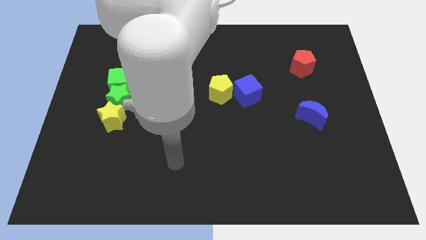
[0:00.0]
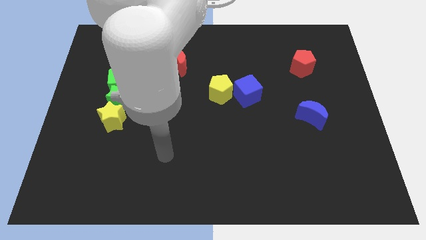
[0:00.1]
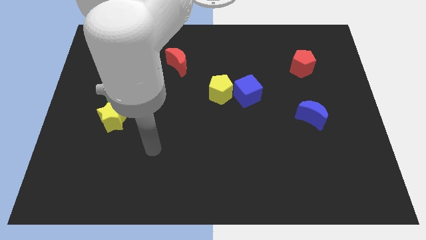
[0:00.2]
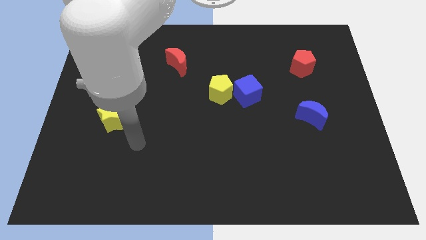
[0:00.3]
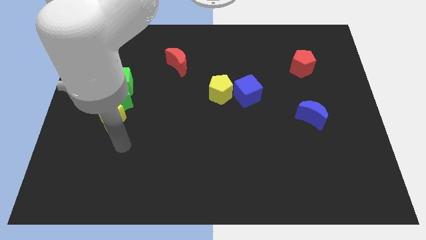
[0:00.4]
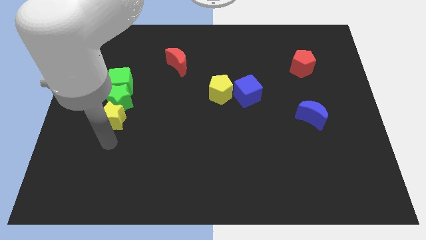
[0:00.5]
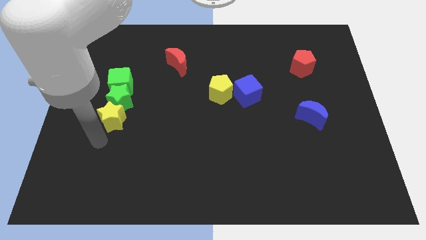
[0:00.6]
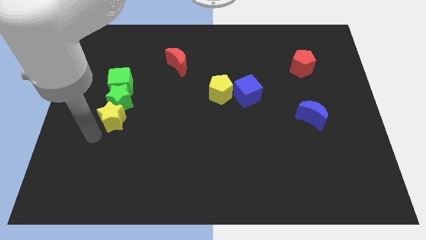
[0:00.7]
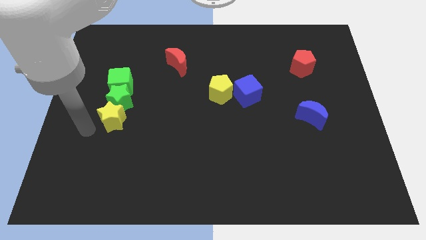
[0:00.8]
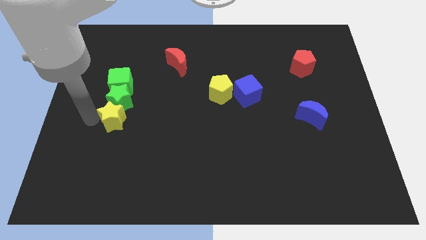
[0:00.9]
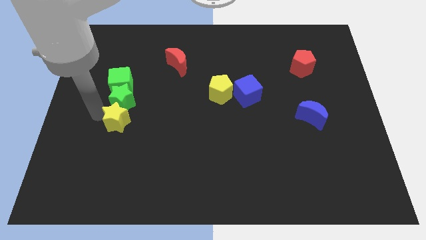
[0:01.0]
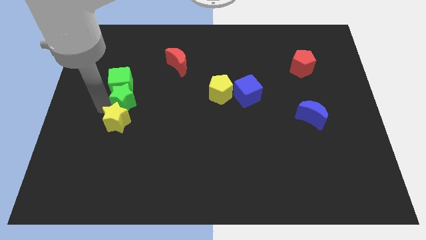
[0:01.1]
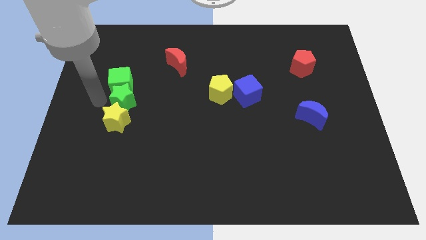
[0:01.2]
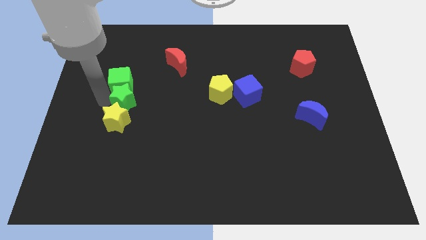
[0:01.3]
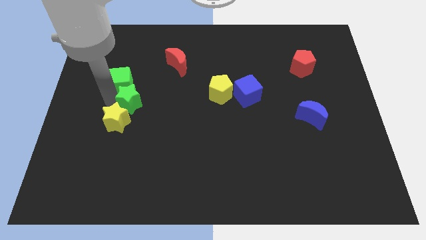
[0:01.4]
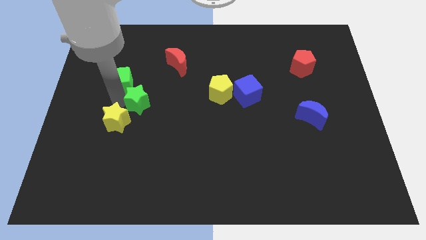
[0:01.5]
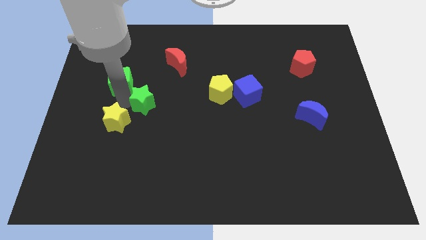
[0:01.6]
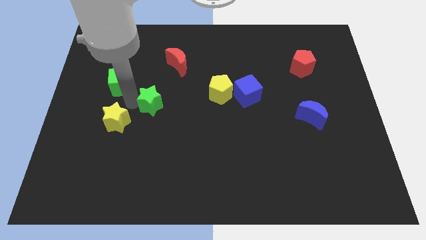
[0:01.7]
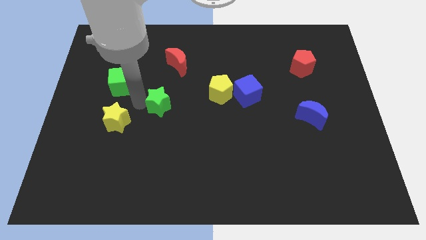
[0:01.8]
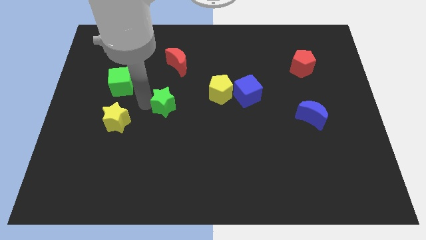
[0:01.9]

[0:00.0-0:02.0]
move the green star away from the yellow star and green cube

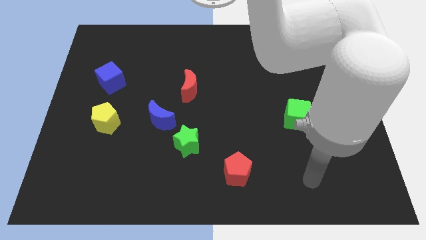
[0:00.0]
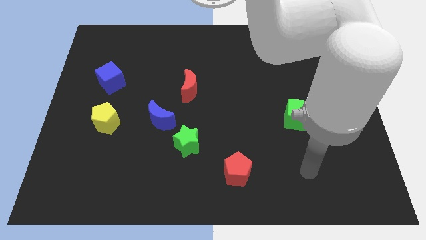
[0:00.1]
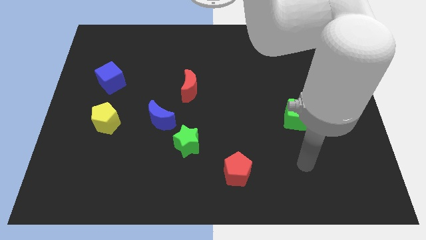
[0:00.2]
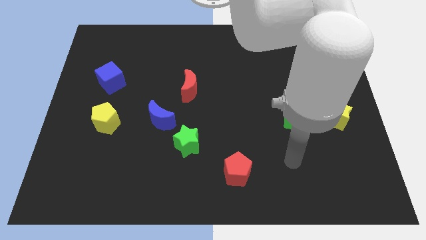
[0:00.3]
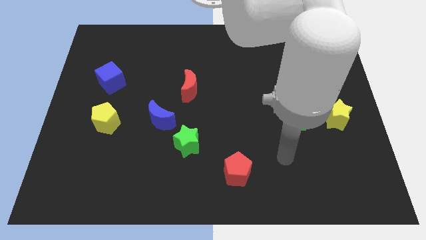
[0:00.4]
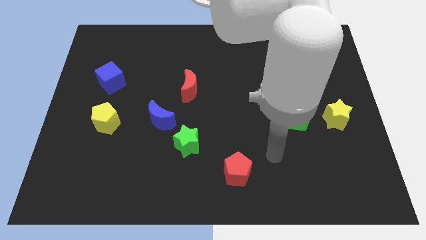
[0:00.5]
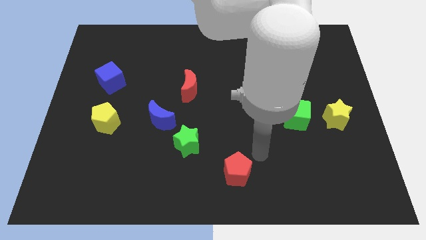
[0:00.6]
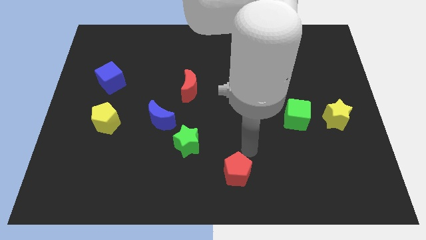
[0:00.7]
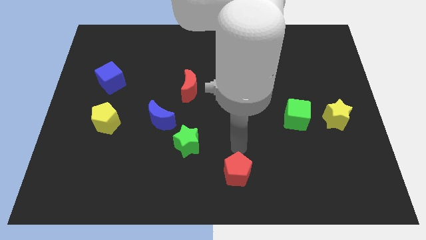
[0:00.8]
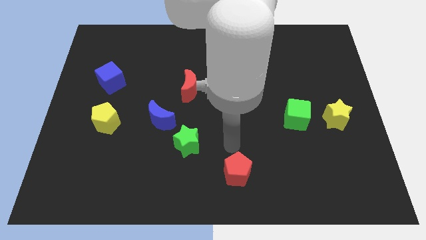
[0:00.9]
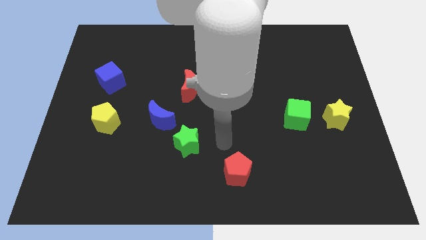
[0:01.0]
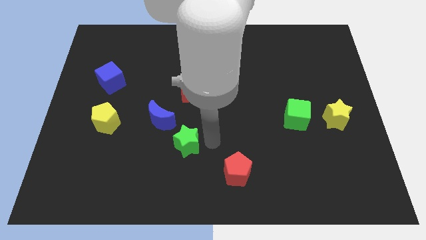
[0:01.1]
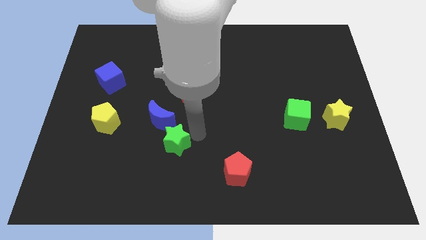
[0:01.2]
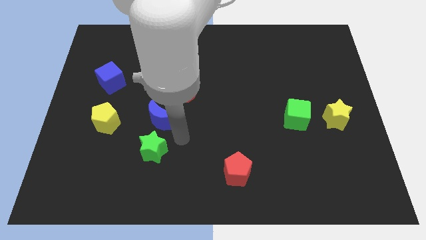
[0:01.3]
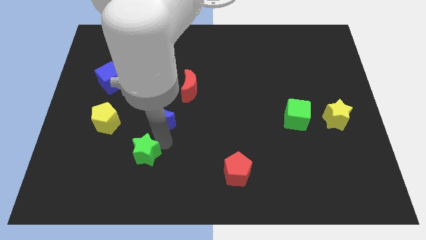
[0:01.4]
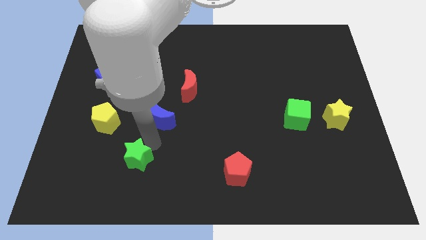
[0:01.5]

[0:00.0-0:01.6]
pull the blue moon apart from the green star

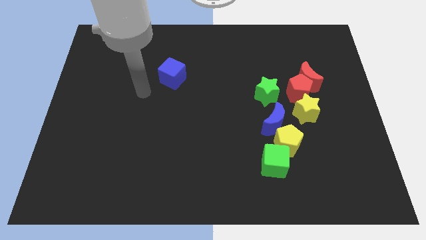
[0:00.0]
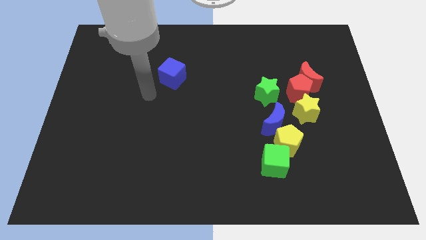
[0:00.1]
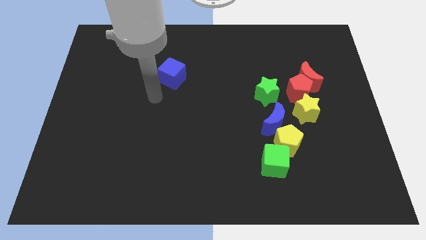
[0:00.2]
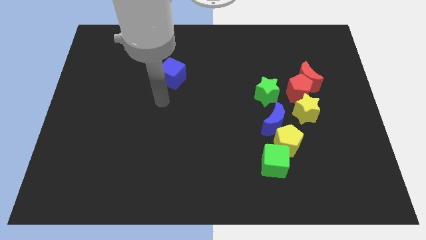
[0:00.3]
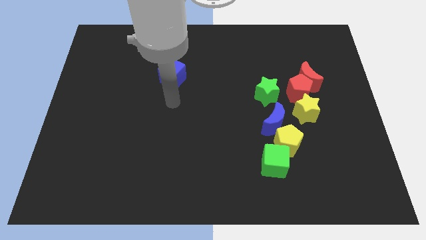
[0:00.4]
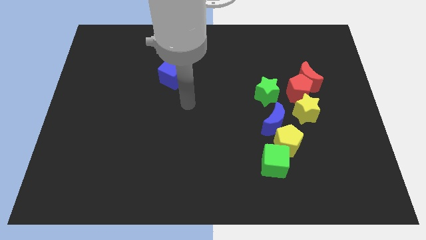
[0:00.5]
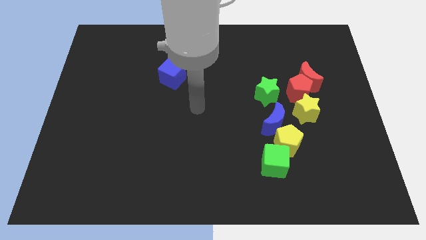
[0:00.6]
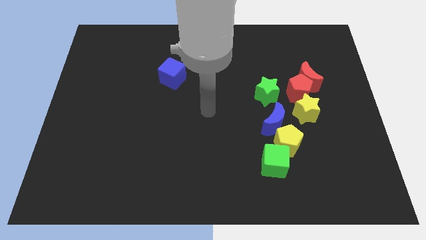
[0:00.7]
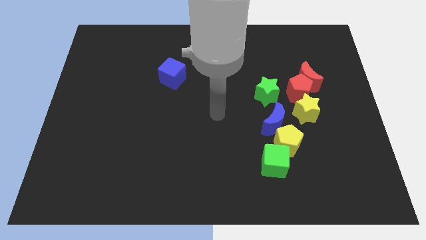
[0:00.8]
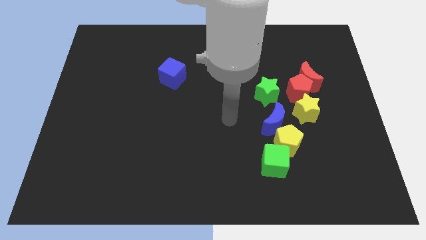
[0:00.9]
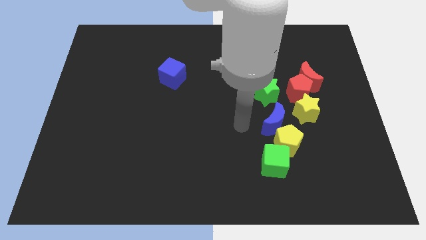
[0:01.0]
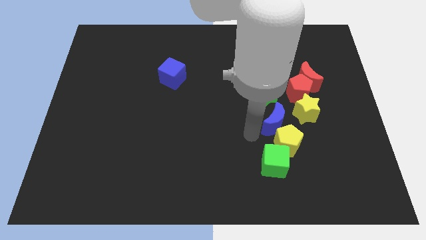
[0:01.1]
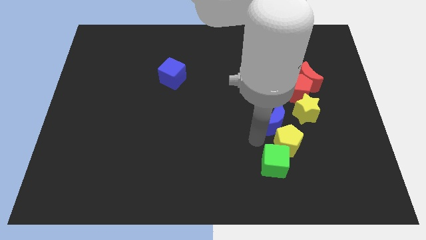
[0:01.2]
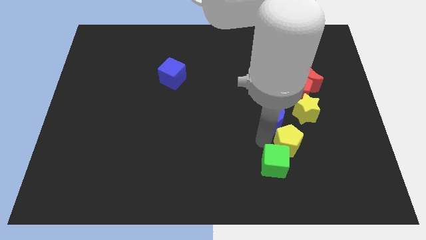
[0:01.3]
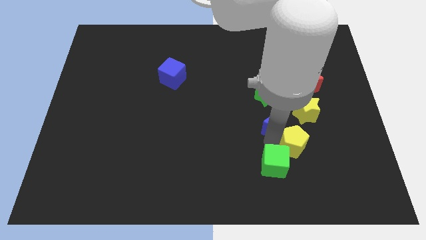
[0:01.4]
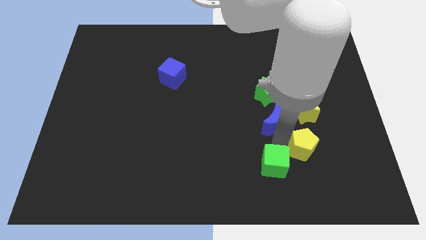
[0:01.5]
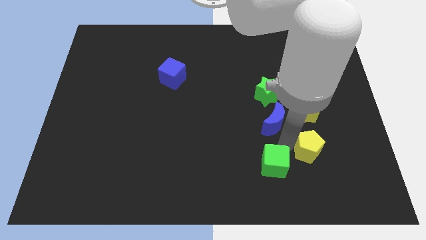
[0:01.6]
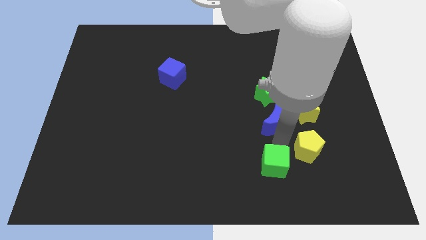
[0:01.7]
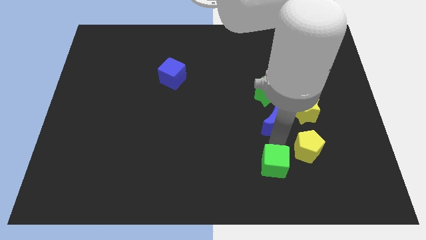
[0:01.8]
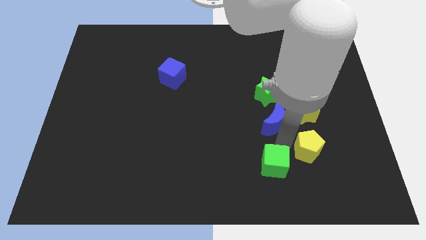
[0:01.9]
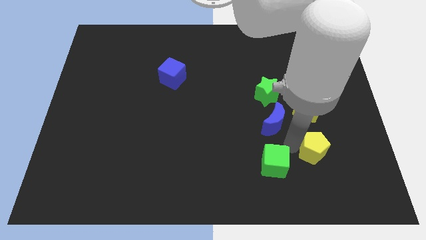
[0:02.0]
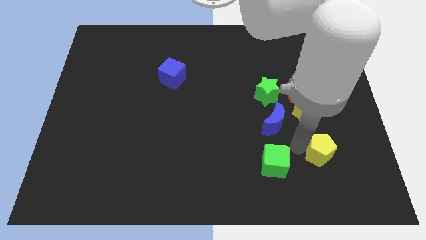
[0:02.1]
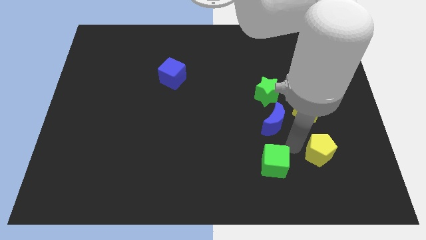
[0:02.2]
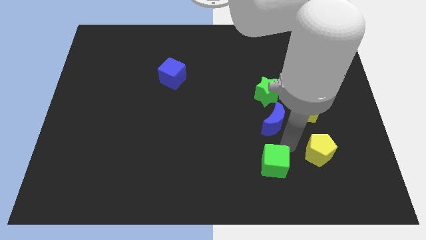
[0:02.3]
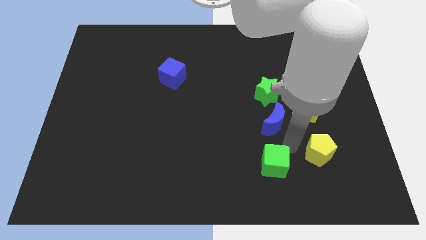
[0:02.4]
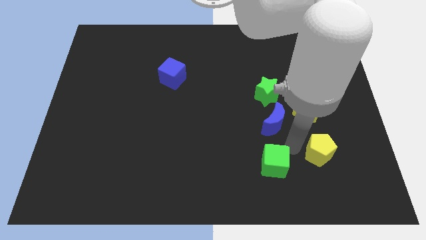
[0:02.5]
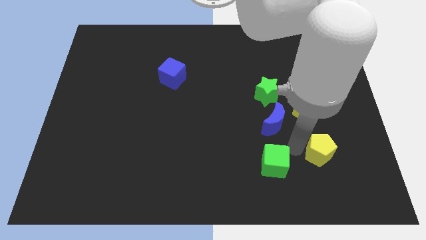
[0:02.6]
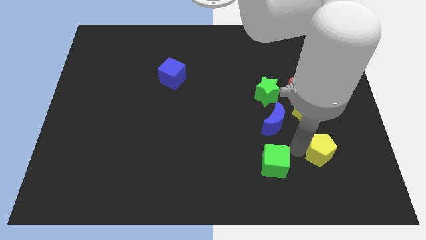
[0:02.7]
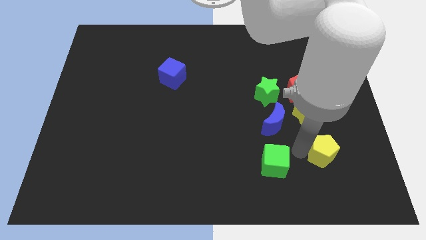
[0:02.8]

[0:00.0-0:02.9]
separate the yellow pentagon from the green cube and blue moon

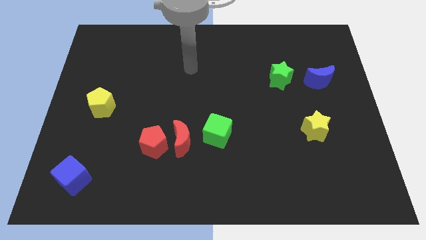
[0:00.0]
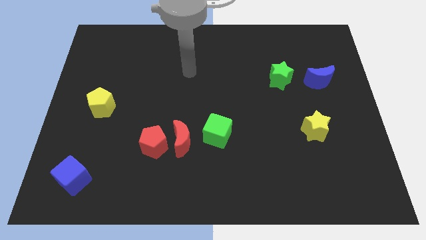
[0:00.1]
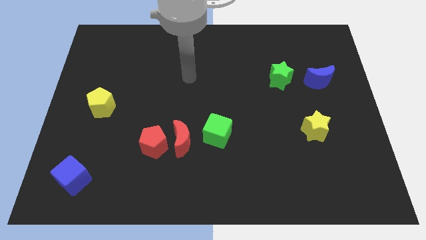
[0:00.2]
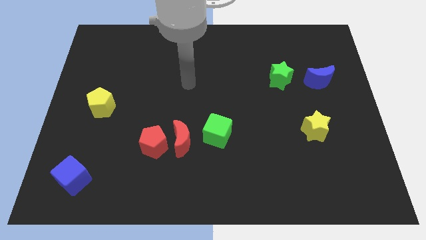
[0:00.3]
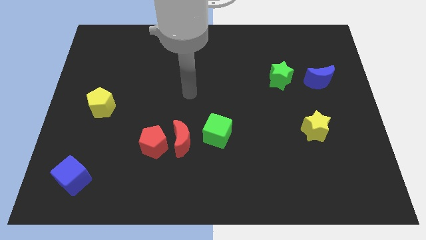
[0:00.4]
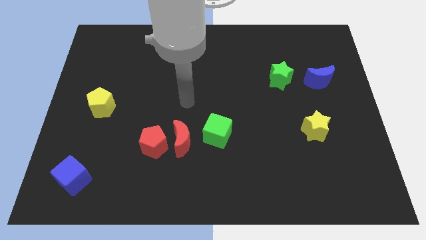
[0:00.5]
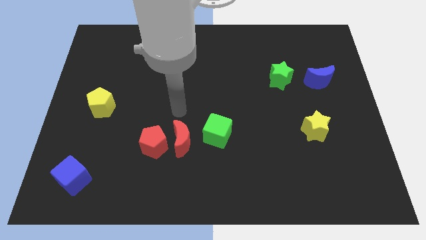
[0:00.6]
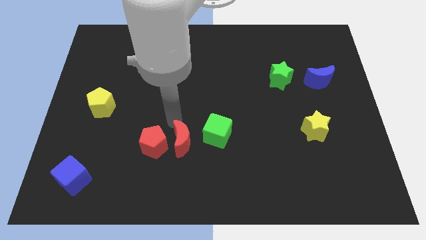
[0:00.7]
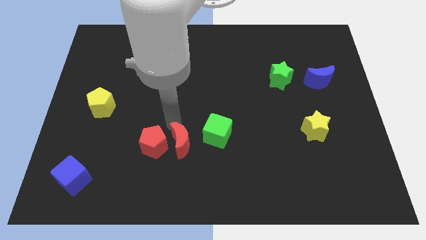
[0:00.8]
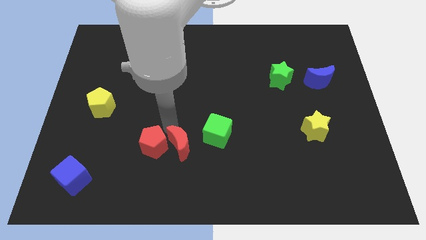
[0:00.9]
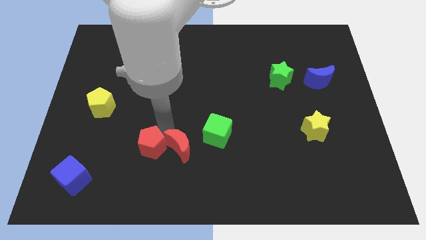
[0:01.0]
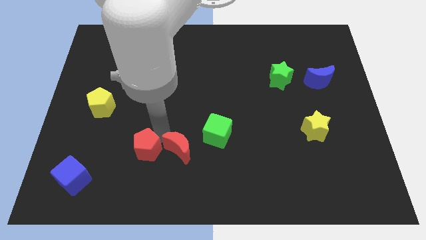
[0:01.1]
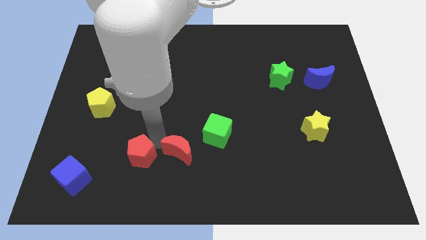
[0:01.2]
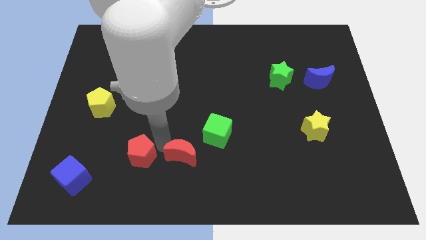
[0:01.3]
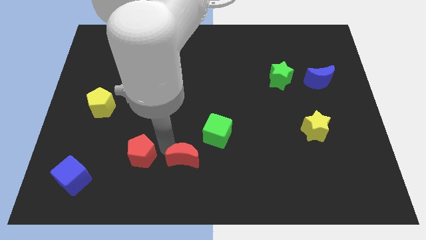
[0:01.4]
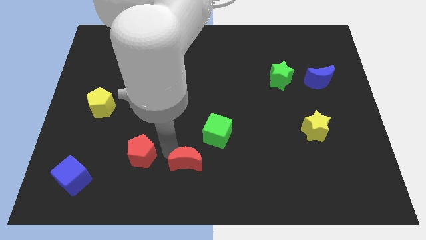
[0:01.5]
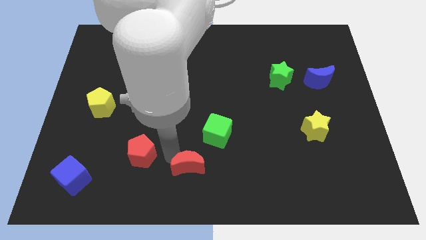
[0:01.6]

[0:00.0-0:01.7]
separate the red pentagon from the red moon

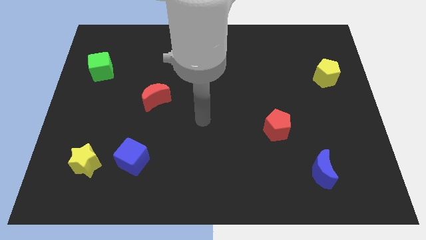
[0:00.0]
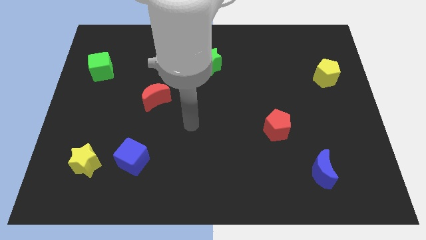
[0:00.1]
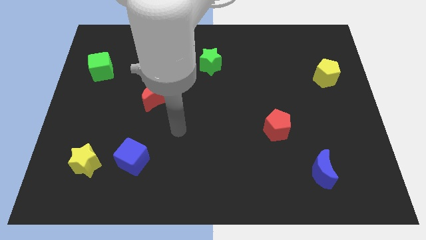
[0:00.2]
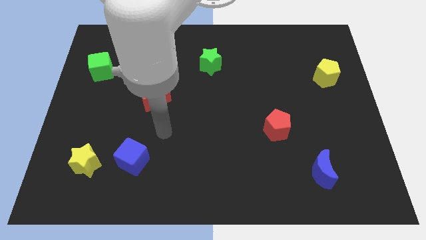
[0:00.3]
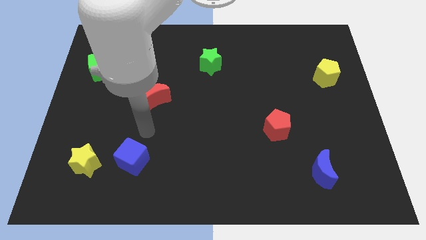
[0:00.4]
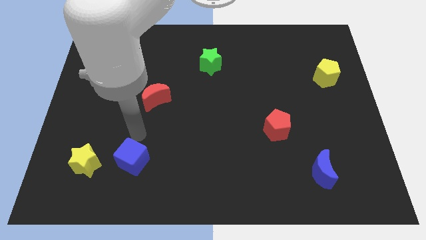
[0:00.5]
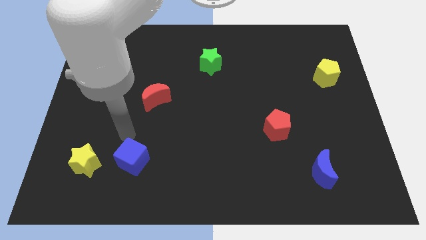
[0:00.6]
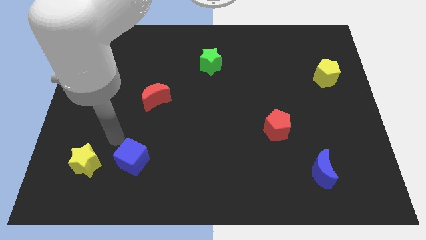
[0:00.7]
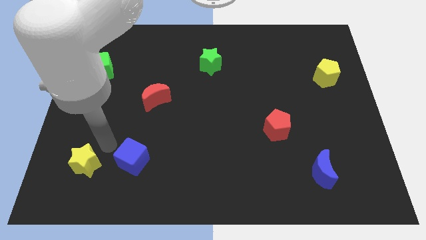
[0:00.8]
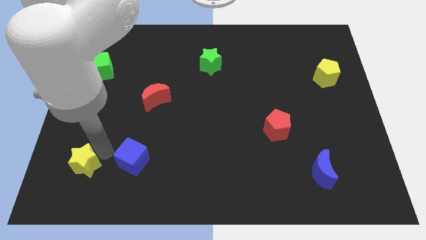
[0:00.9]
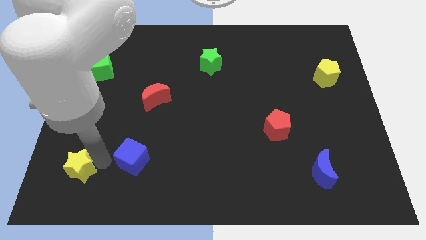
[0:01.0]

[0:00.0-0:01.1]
separate the blue cube from the yellow star
